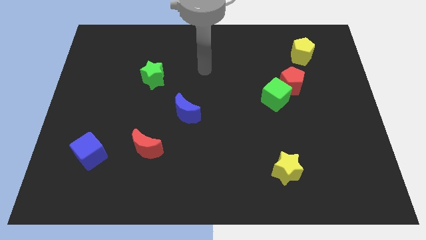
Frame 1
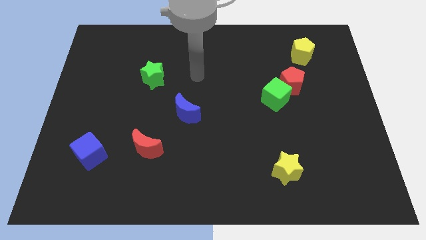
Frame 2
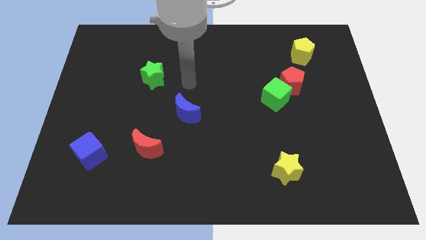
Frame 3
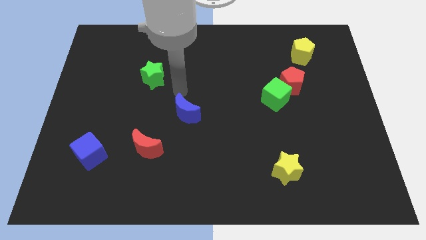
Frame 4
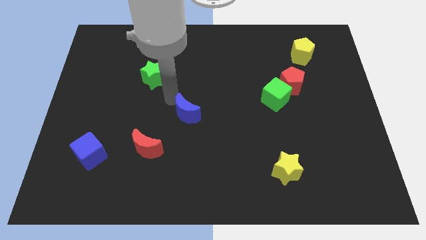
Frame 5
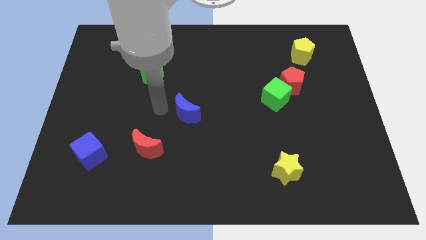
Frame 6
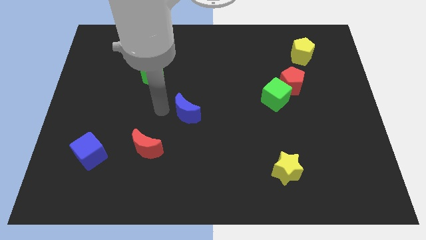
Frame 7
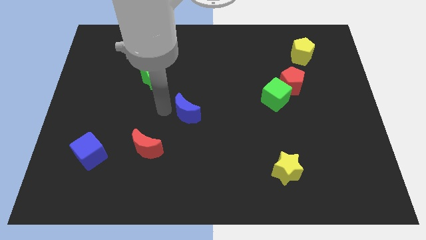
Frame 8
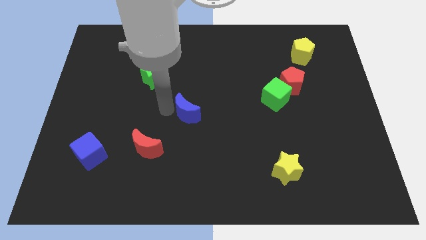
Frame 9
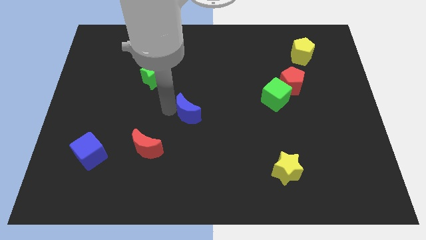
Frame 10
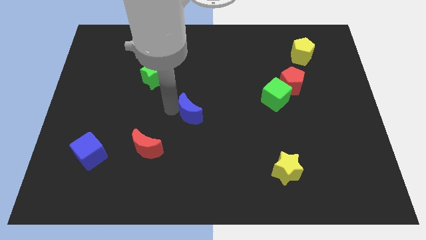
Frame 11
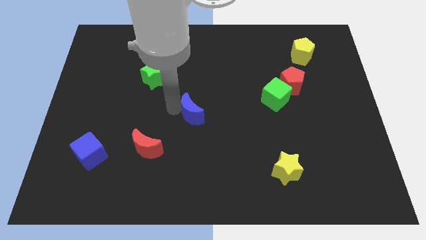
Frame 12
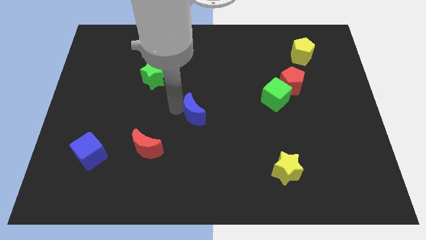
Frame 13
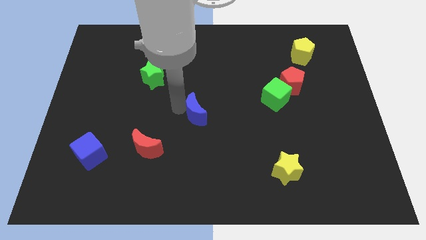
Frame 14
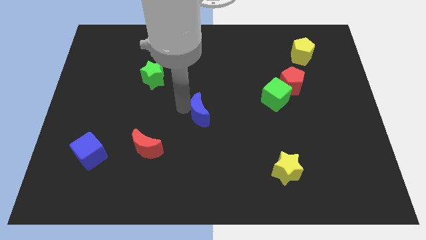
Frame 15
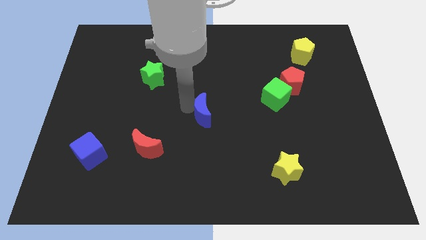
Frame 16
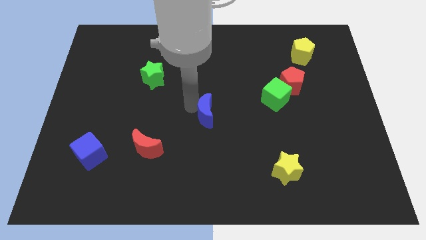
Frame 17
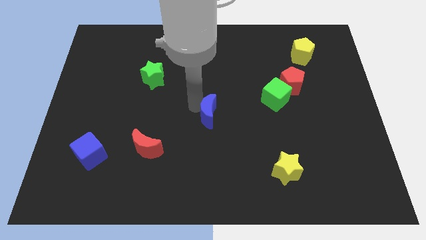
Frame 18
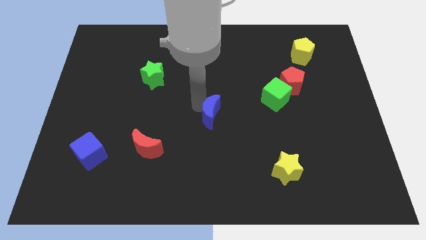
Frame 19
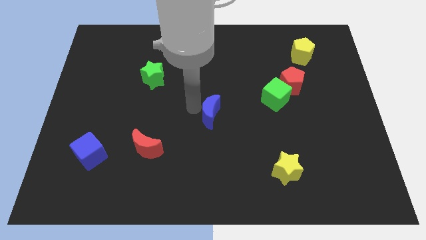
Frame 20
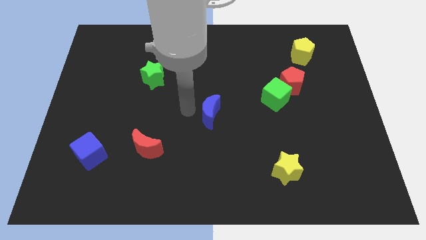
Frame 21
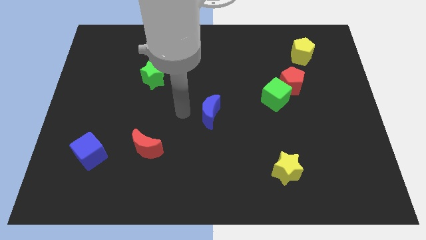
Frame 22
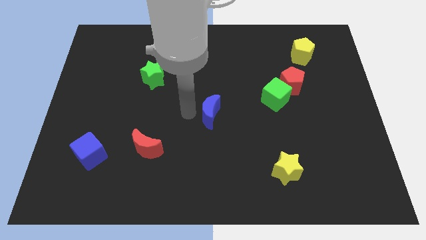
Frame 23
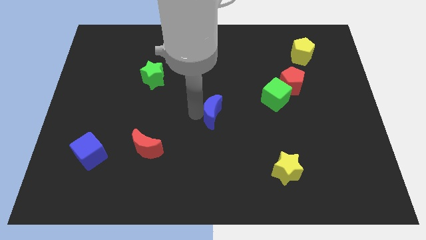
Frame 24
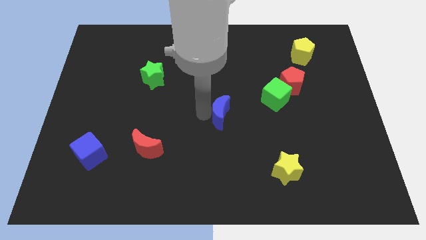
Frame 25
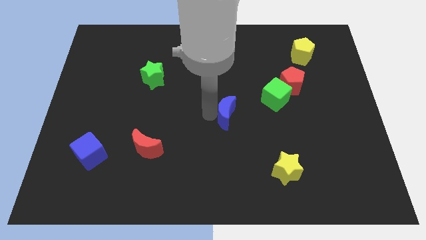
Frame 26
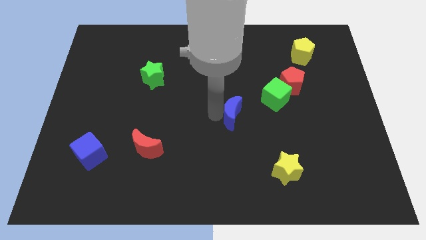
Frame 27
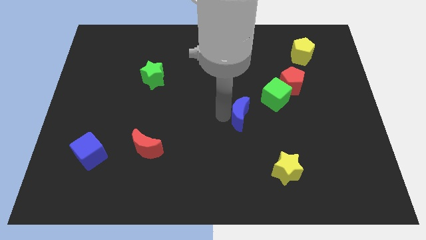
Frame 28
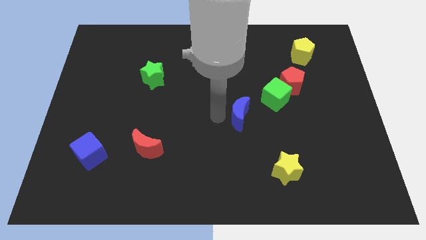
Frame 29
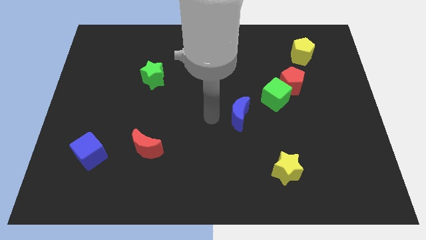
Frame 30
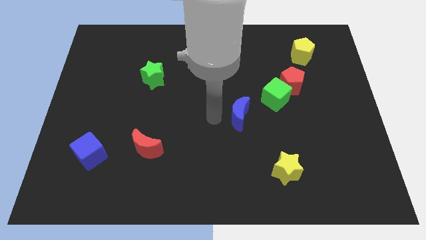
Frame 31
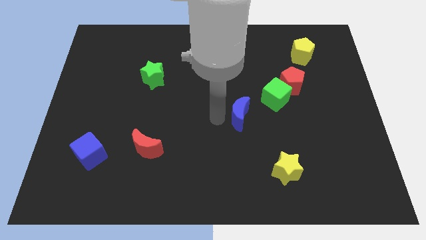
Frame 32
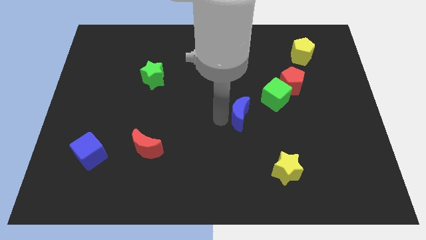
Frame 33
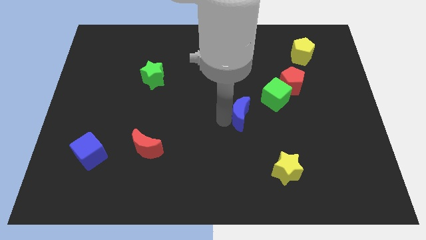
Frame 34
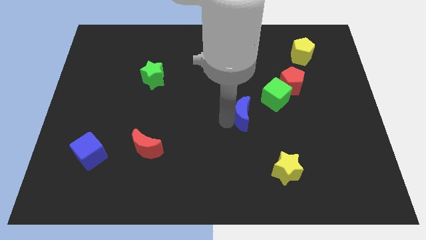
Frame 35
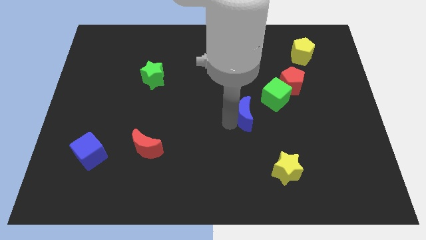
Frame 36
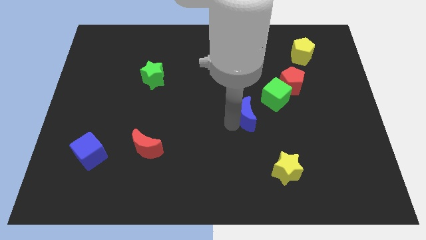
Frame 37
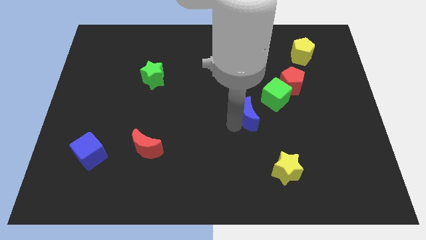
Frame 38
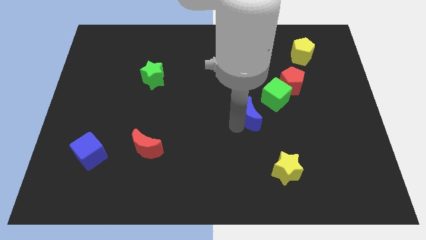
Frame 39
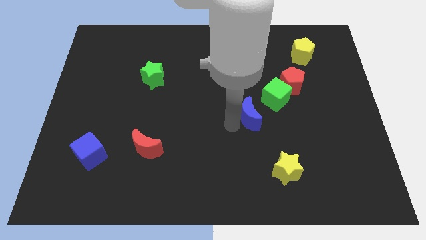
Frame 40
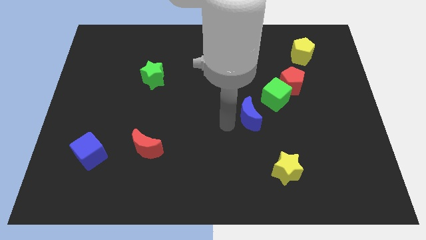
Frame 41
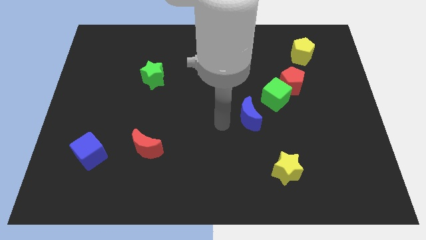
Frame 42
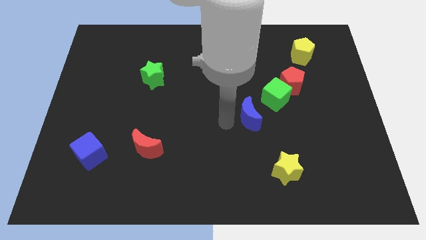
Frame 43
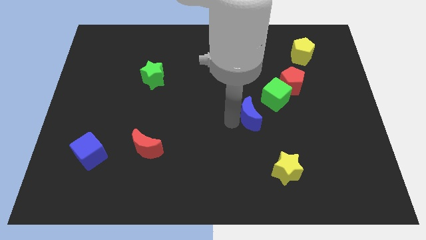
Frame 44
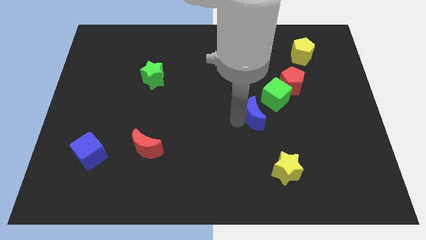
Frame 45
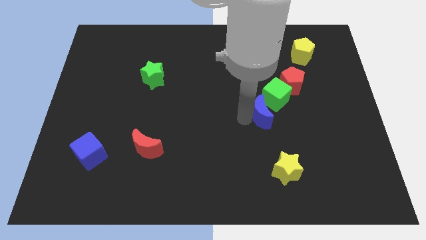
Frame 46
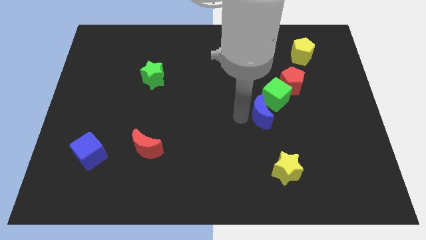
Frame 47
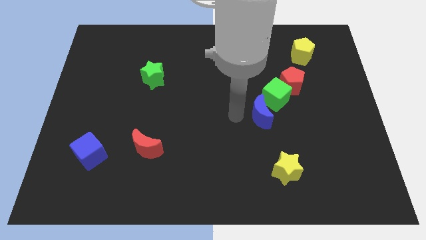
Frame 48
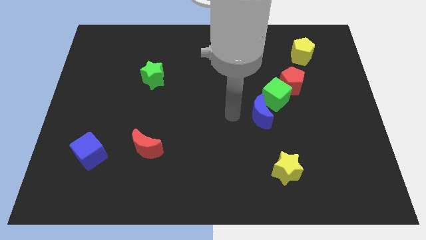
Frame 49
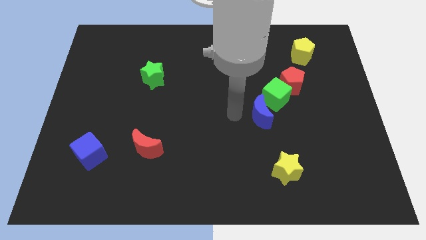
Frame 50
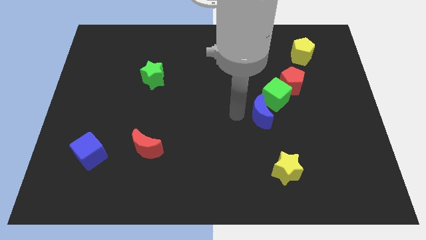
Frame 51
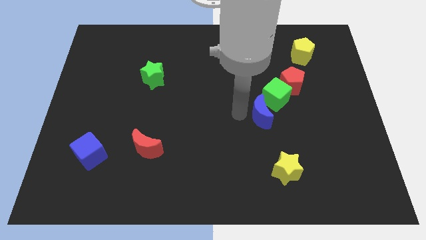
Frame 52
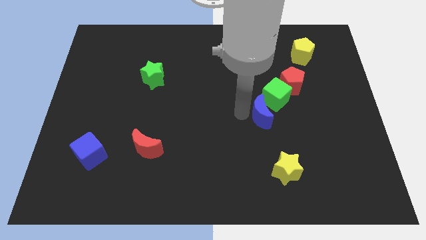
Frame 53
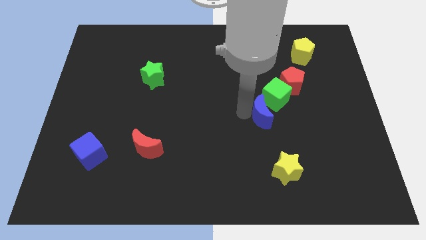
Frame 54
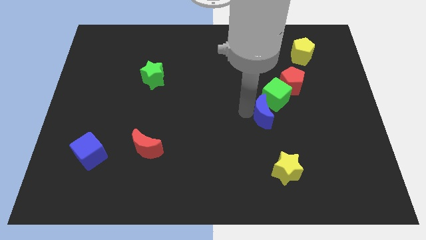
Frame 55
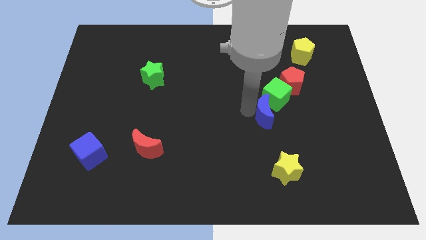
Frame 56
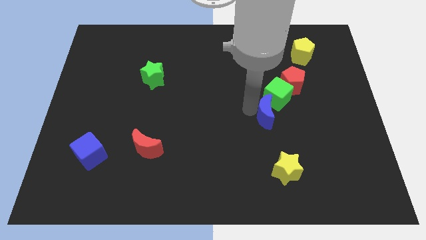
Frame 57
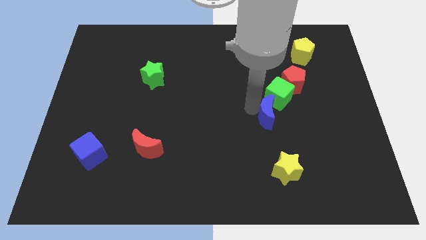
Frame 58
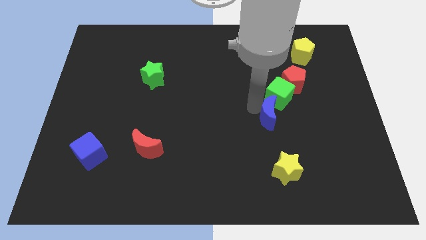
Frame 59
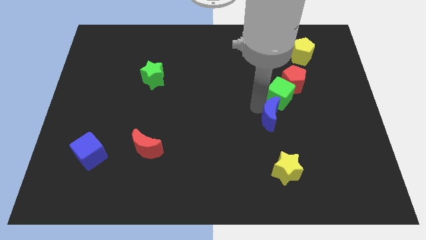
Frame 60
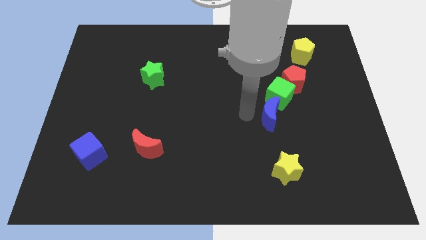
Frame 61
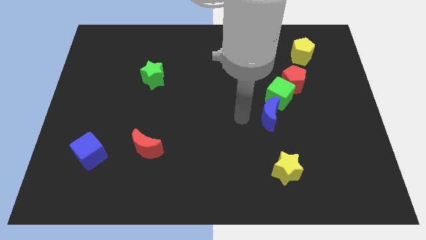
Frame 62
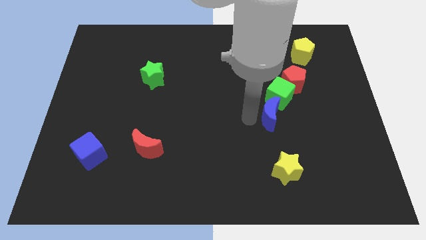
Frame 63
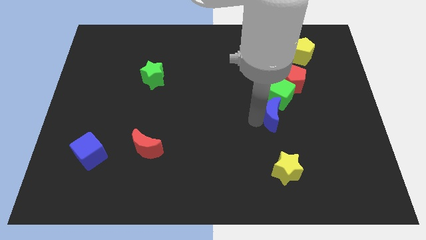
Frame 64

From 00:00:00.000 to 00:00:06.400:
push the blue moon right

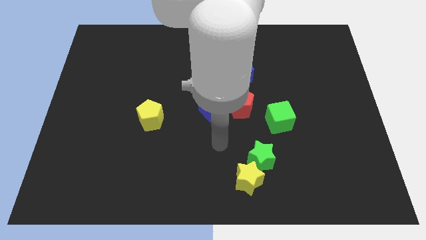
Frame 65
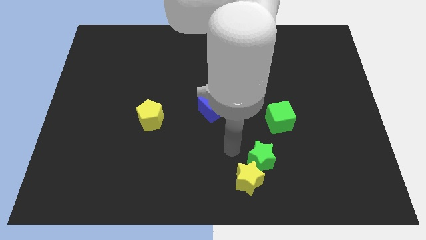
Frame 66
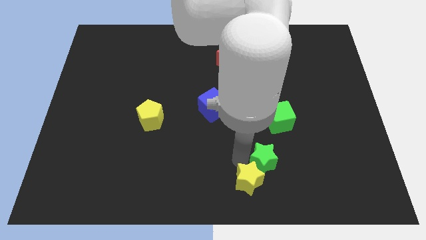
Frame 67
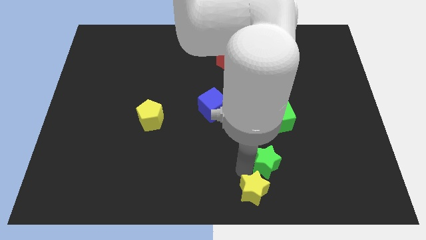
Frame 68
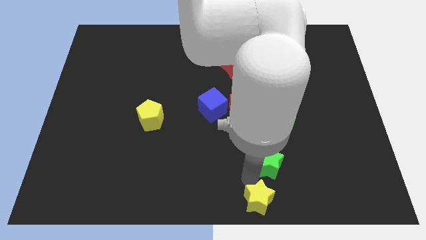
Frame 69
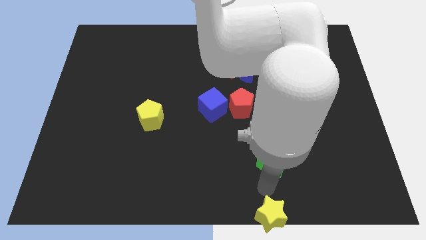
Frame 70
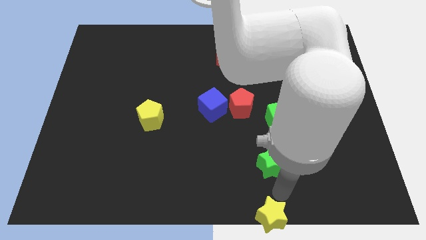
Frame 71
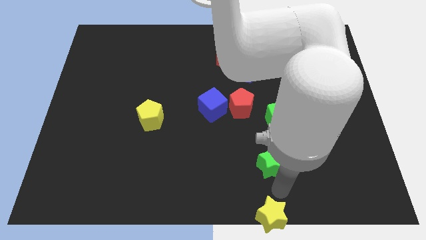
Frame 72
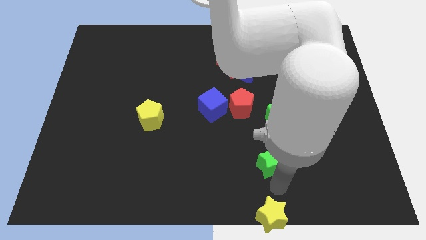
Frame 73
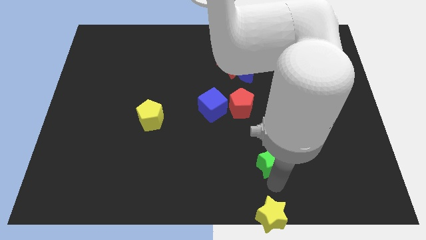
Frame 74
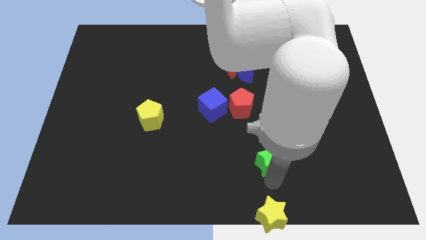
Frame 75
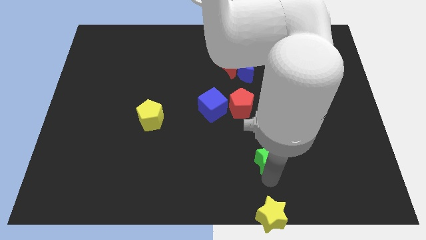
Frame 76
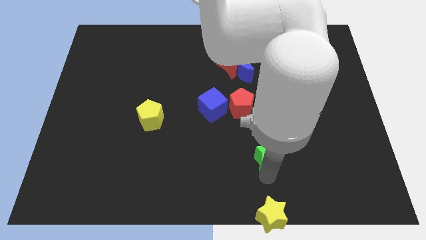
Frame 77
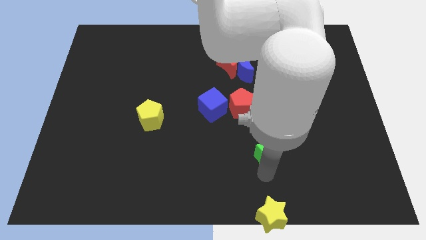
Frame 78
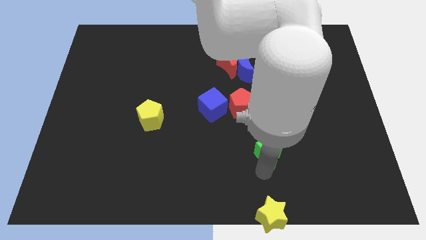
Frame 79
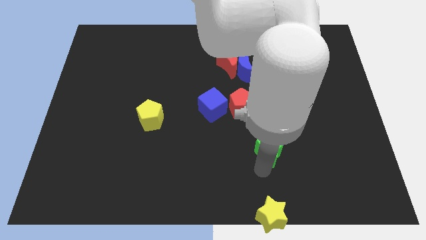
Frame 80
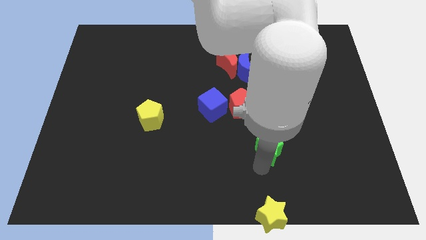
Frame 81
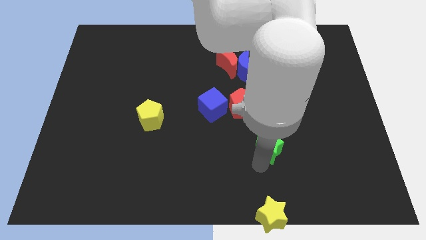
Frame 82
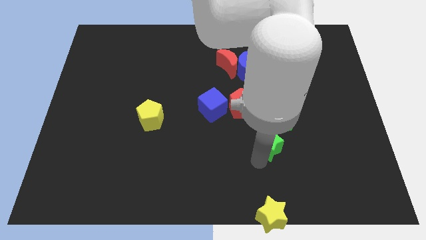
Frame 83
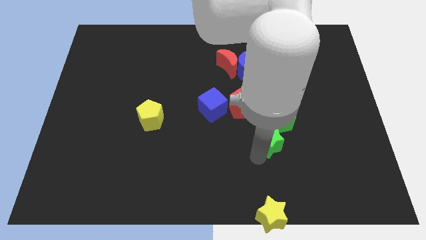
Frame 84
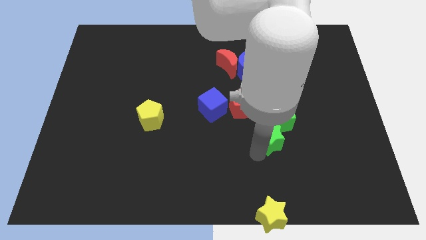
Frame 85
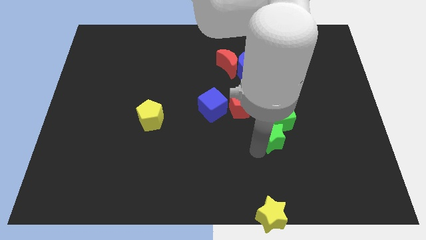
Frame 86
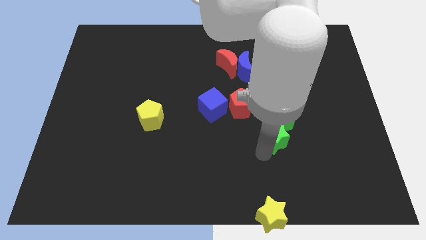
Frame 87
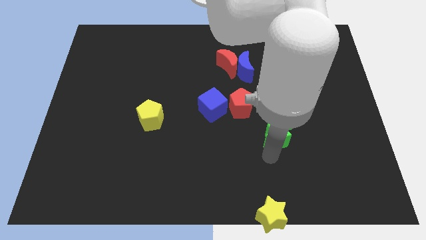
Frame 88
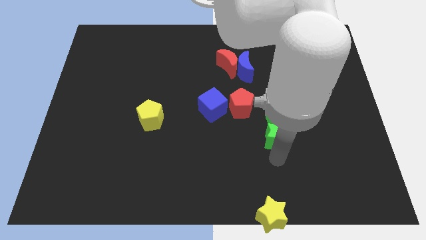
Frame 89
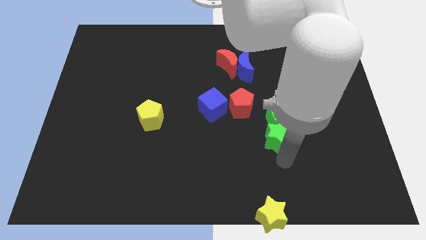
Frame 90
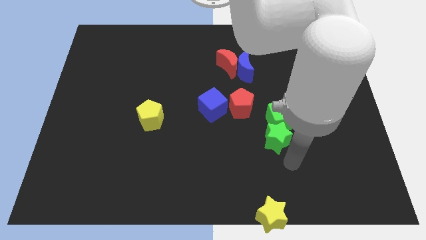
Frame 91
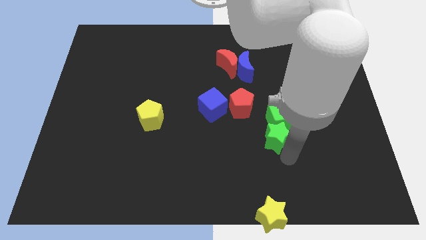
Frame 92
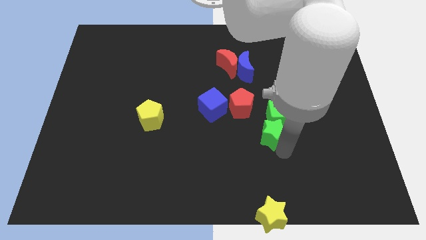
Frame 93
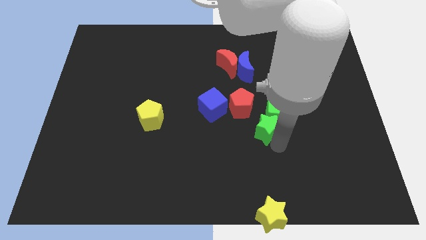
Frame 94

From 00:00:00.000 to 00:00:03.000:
slightly move the green star upwards
